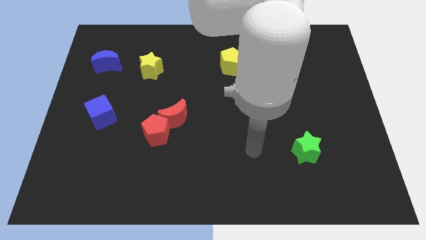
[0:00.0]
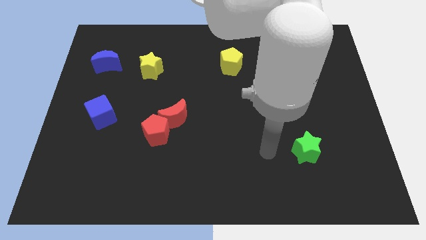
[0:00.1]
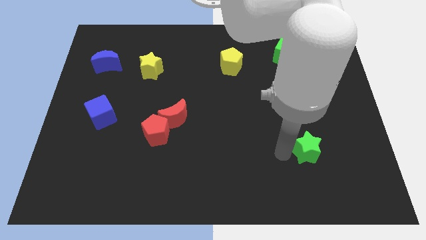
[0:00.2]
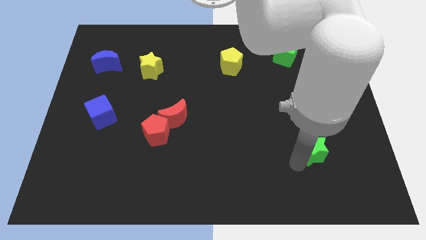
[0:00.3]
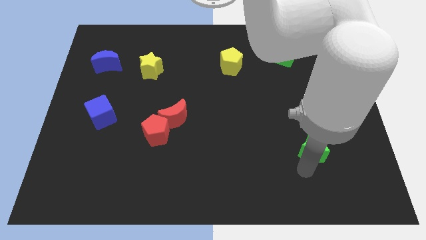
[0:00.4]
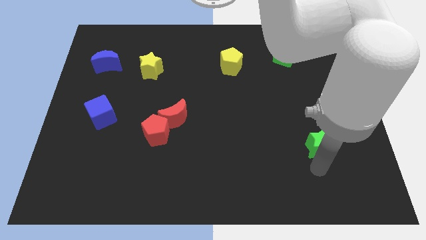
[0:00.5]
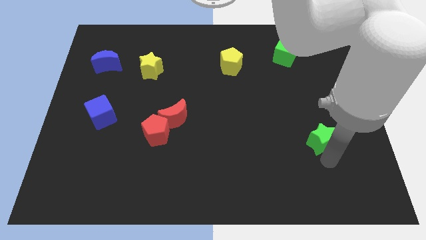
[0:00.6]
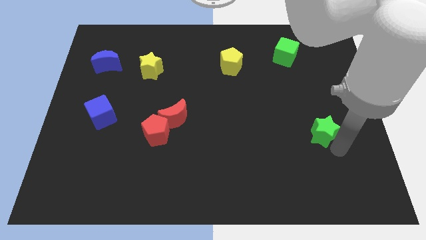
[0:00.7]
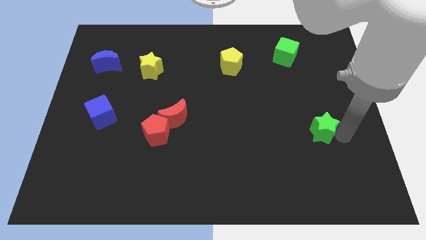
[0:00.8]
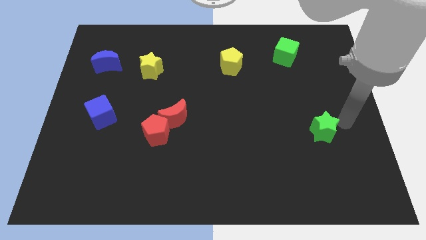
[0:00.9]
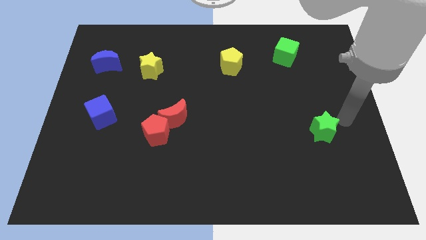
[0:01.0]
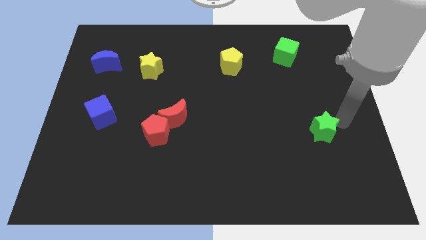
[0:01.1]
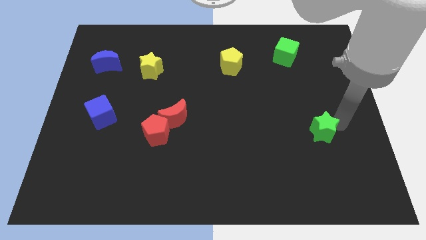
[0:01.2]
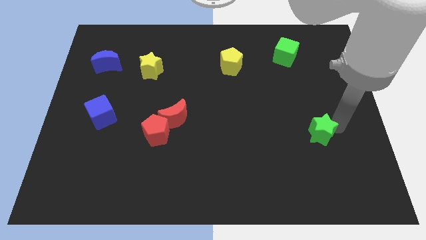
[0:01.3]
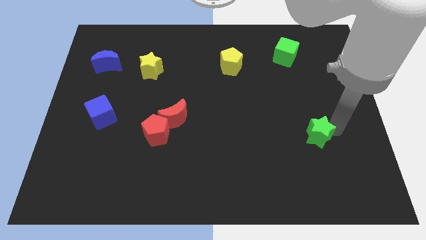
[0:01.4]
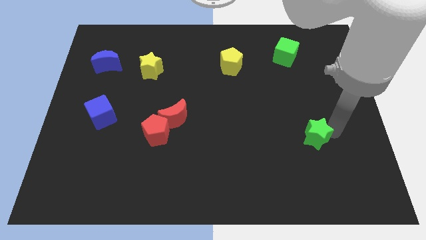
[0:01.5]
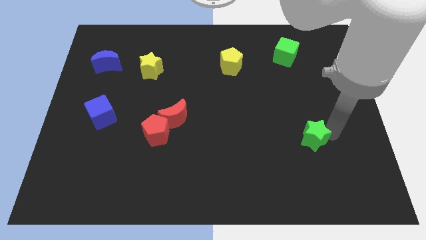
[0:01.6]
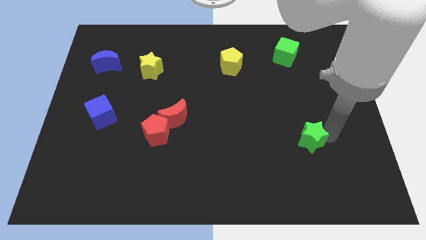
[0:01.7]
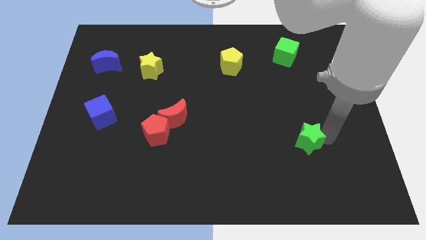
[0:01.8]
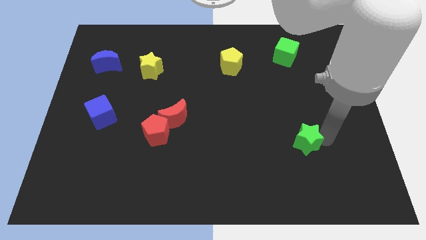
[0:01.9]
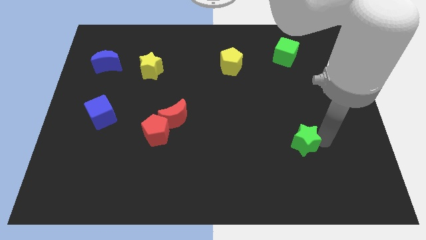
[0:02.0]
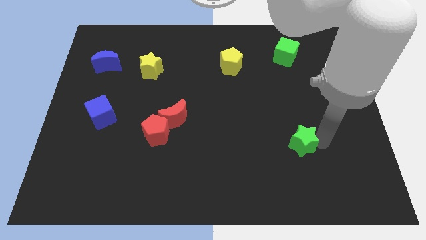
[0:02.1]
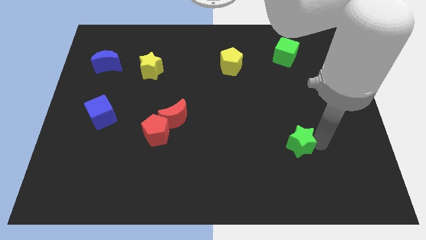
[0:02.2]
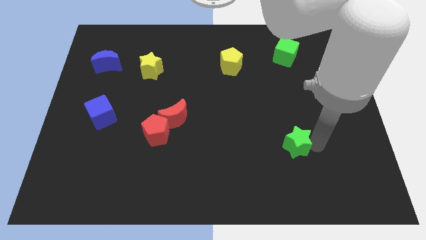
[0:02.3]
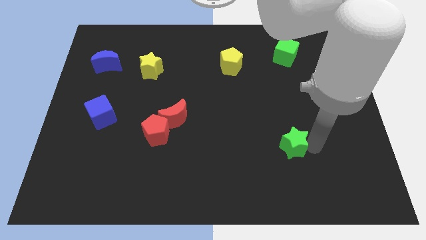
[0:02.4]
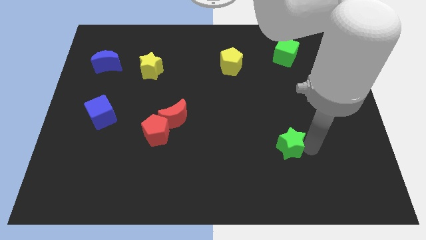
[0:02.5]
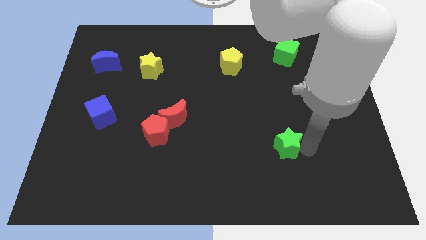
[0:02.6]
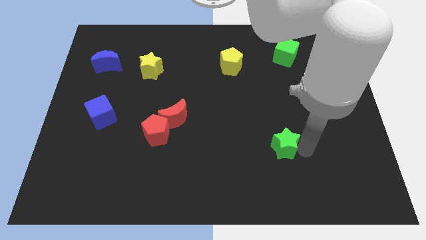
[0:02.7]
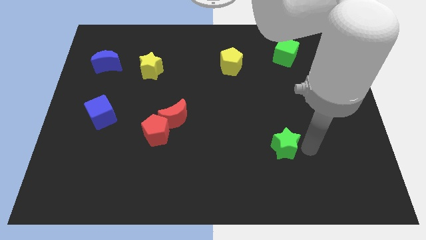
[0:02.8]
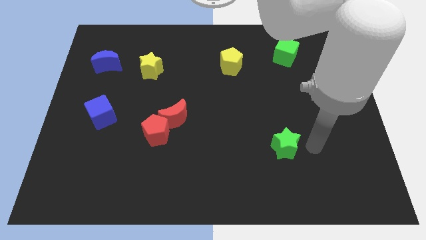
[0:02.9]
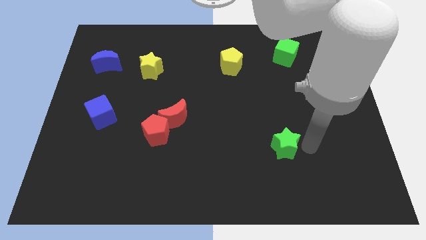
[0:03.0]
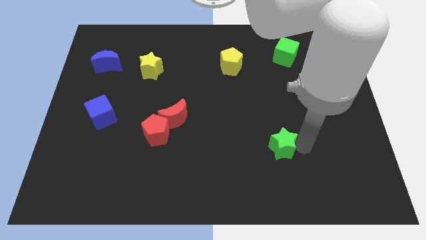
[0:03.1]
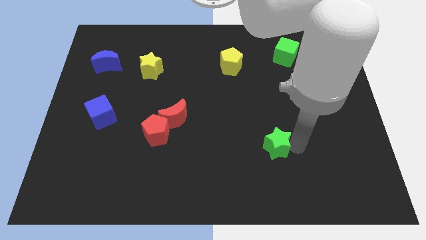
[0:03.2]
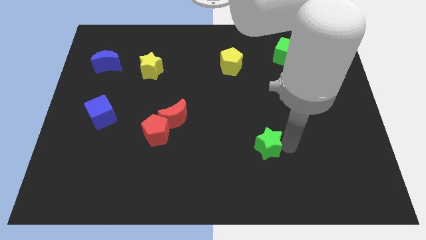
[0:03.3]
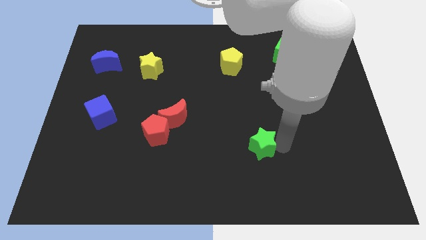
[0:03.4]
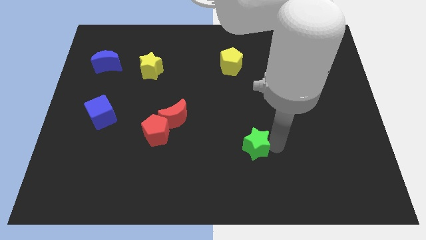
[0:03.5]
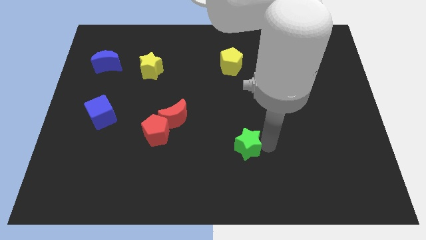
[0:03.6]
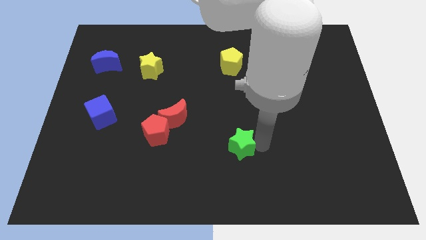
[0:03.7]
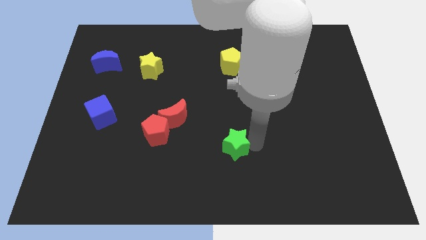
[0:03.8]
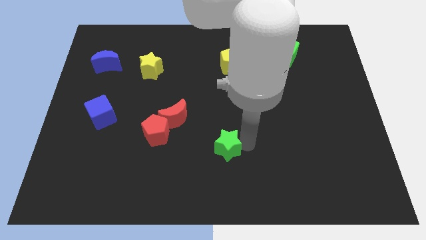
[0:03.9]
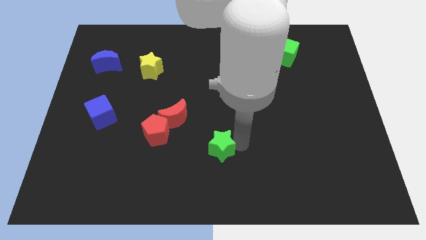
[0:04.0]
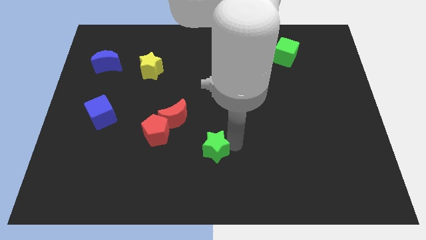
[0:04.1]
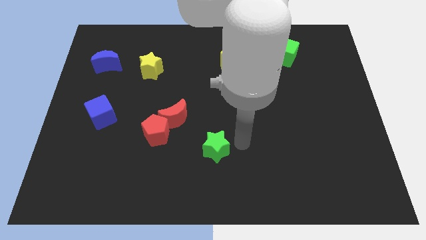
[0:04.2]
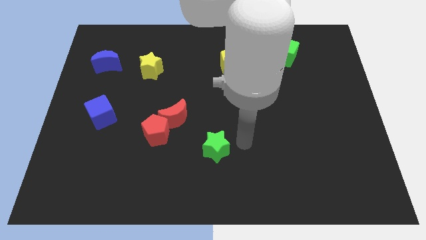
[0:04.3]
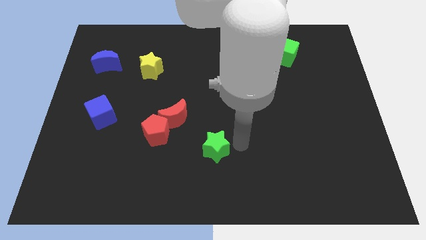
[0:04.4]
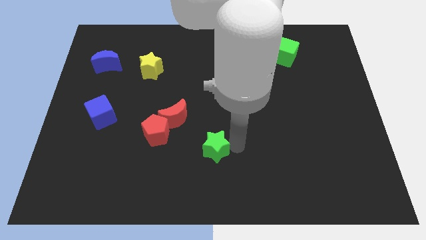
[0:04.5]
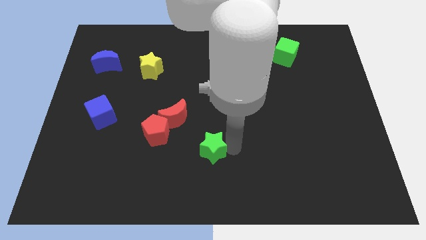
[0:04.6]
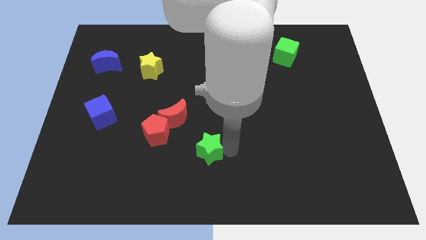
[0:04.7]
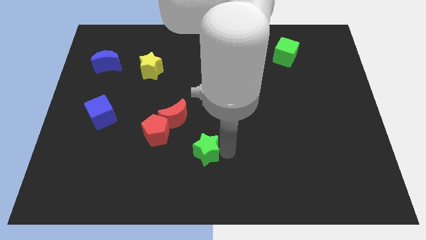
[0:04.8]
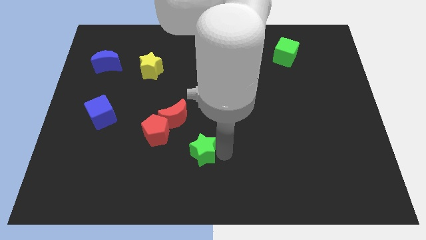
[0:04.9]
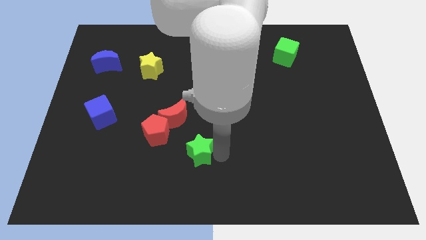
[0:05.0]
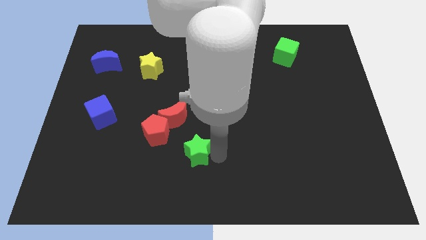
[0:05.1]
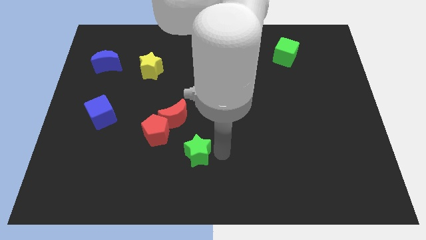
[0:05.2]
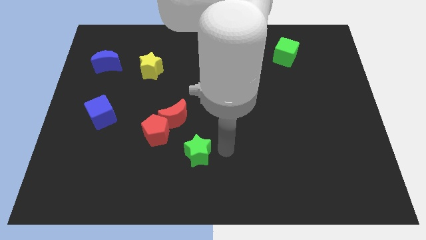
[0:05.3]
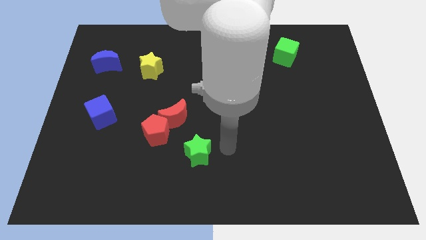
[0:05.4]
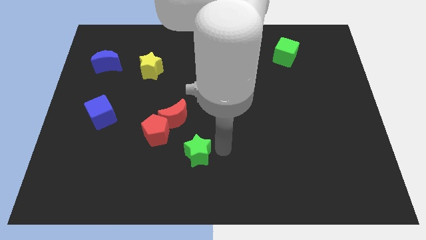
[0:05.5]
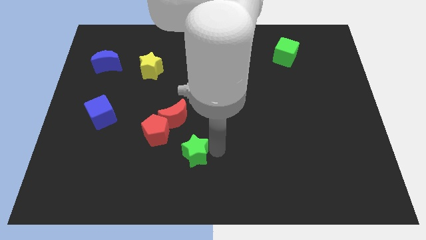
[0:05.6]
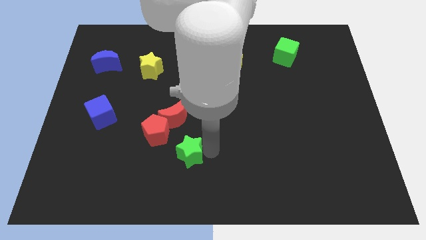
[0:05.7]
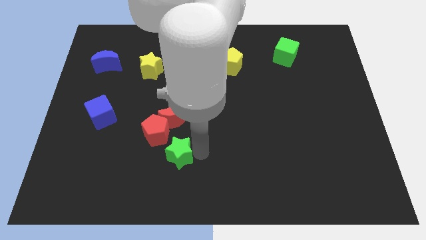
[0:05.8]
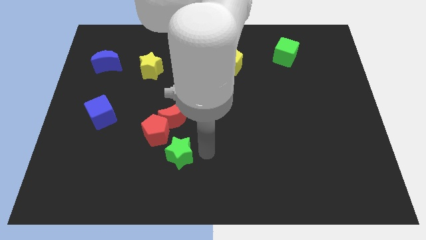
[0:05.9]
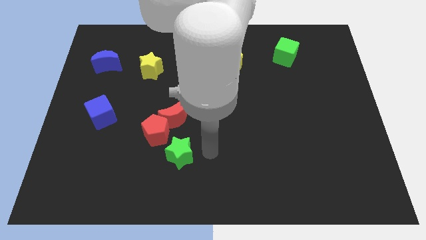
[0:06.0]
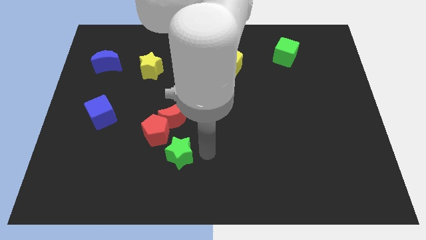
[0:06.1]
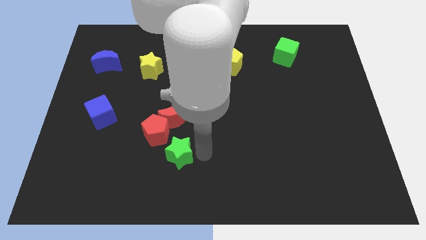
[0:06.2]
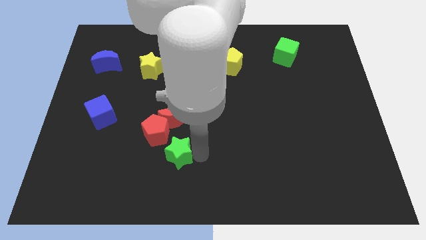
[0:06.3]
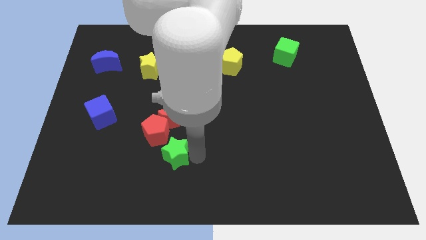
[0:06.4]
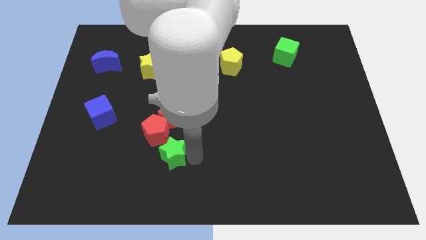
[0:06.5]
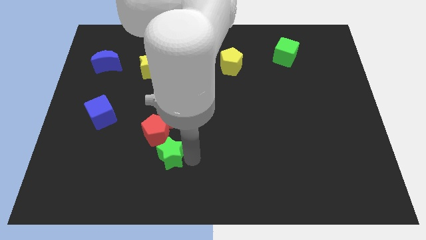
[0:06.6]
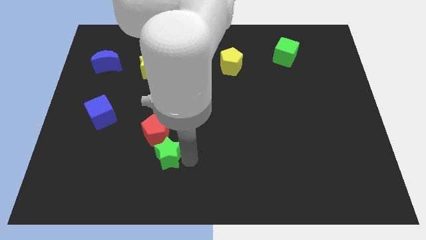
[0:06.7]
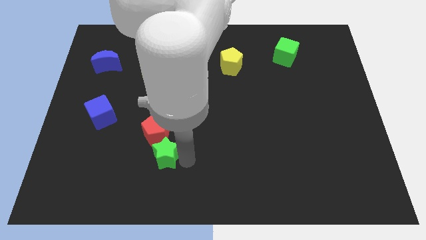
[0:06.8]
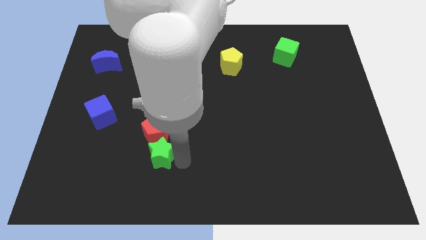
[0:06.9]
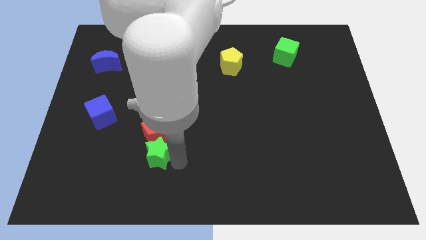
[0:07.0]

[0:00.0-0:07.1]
put the green star to the bottom left side of the red pentagon
